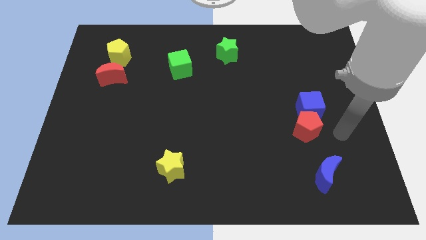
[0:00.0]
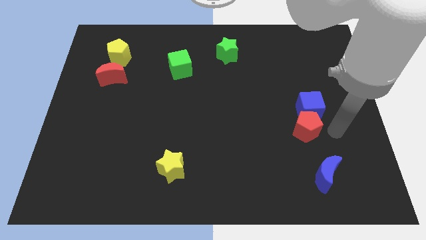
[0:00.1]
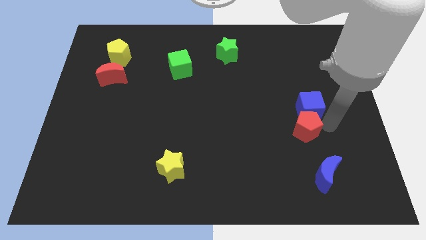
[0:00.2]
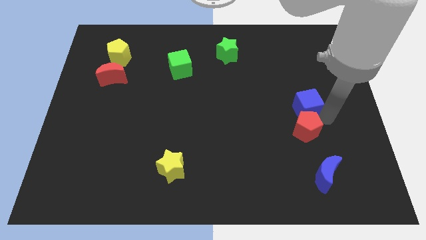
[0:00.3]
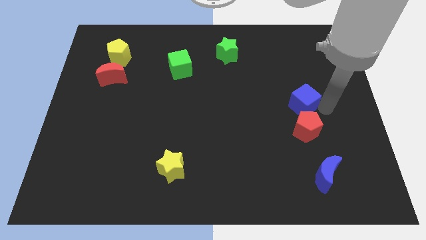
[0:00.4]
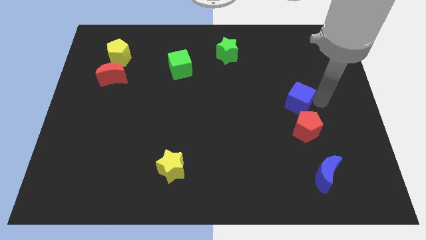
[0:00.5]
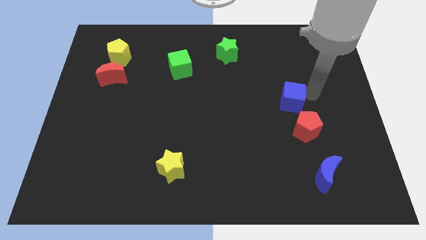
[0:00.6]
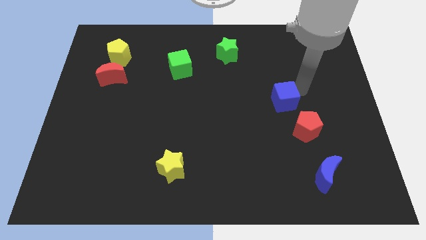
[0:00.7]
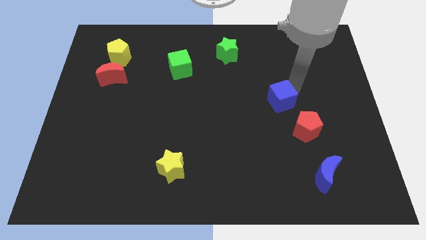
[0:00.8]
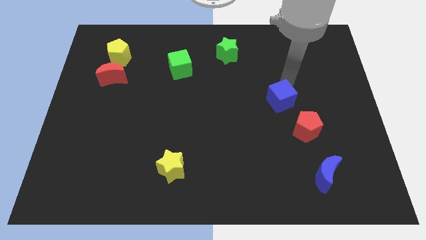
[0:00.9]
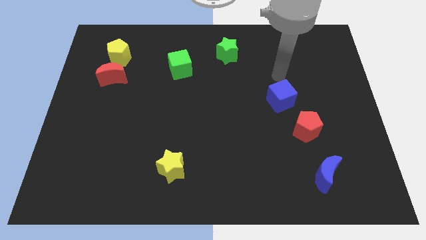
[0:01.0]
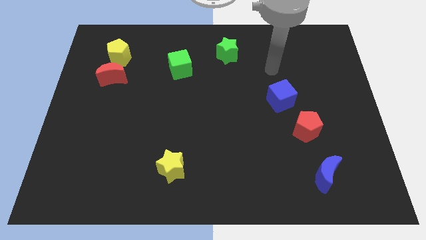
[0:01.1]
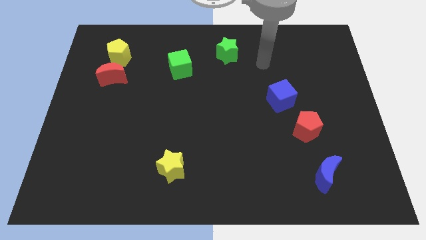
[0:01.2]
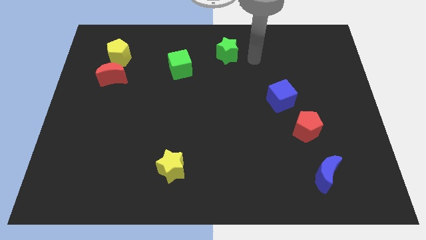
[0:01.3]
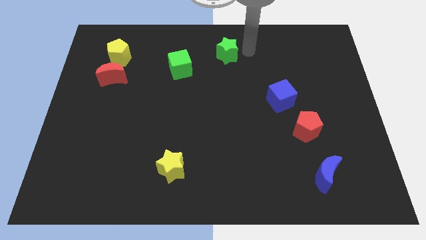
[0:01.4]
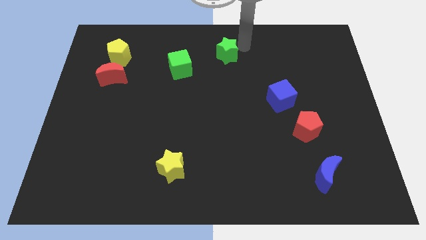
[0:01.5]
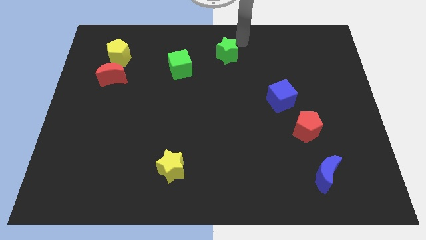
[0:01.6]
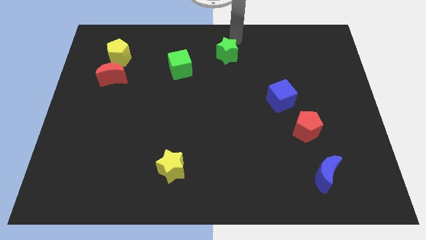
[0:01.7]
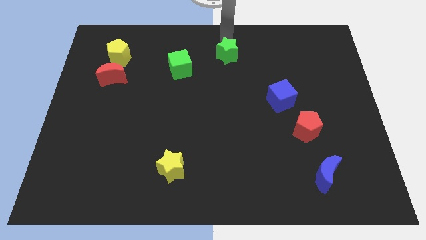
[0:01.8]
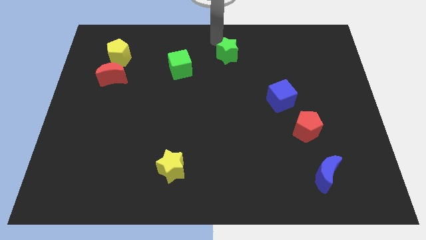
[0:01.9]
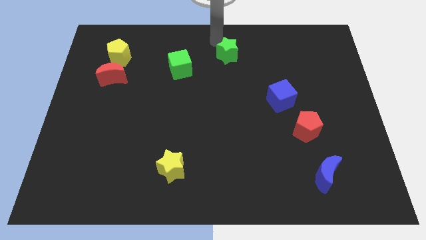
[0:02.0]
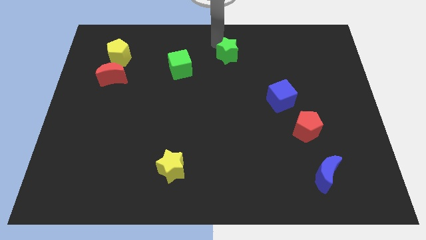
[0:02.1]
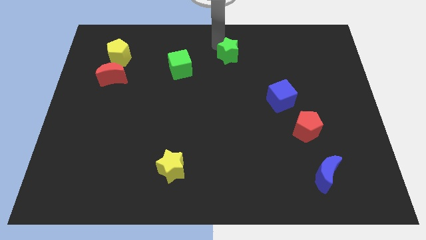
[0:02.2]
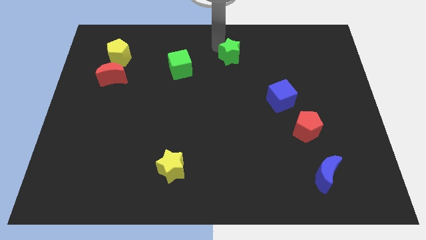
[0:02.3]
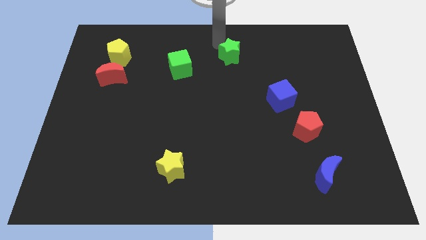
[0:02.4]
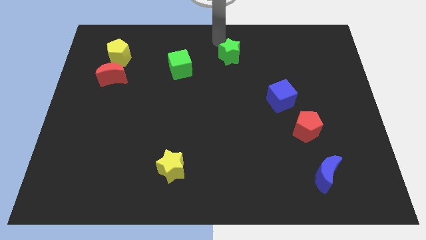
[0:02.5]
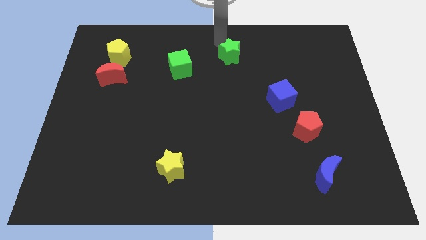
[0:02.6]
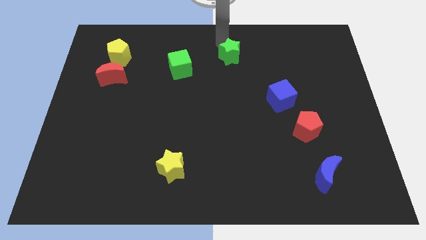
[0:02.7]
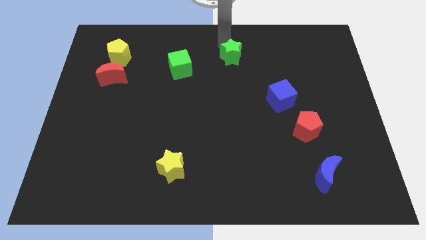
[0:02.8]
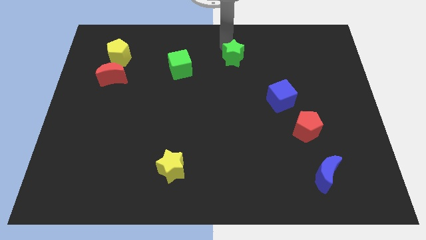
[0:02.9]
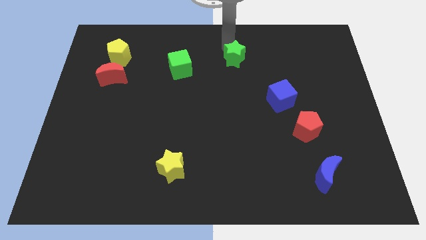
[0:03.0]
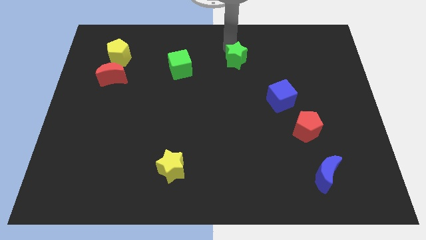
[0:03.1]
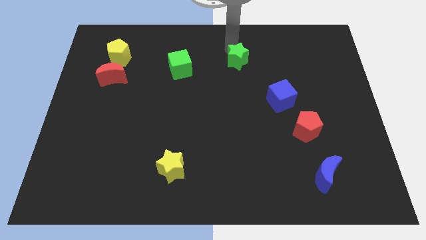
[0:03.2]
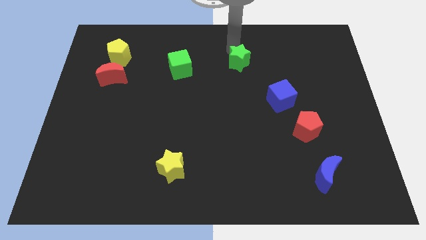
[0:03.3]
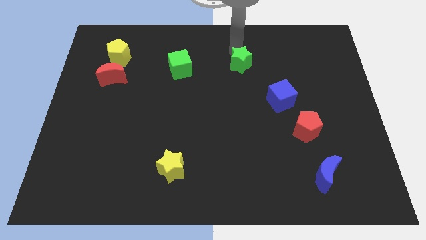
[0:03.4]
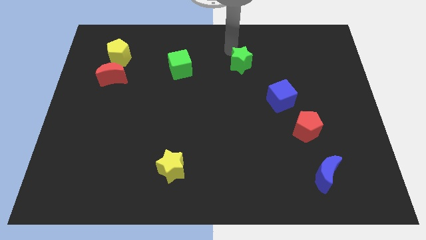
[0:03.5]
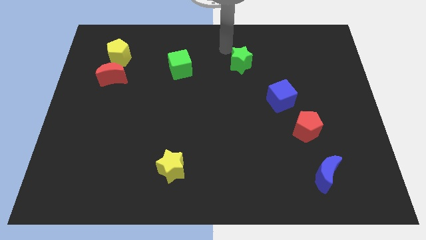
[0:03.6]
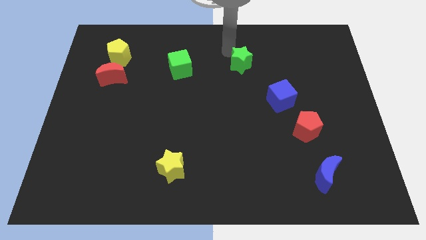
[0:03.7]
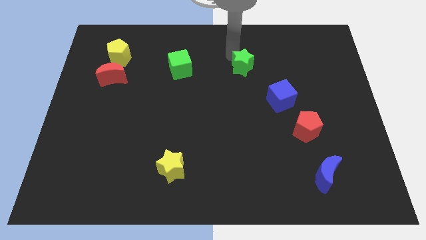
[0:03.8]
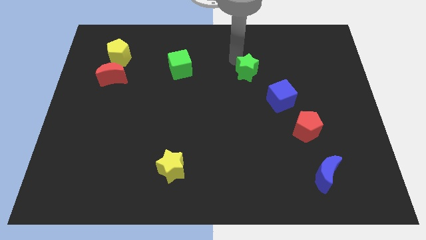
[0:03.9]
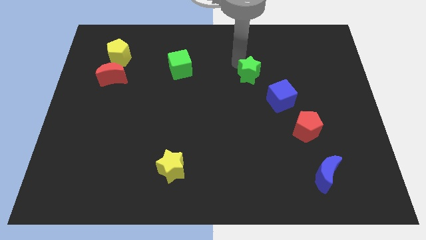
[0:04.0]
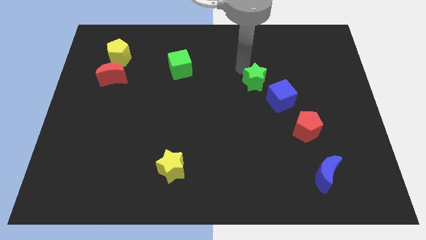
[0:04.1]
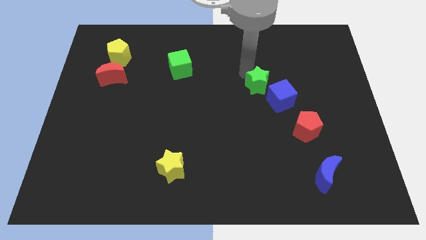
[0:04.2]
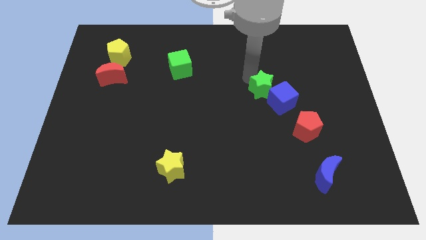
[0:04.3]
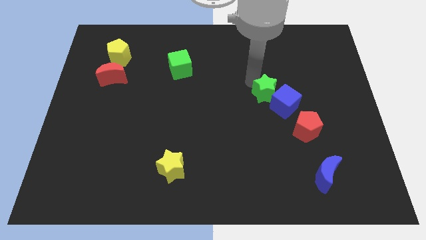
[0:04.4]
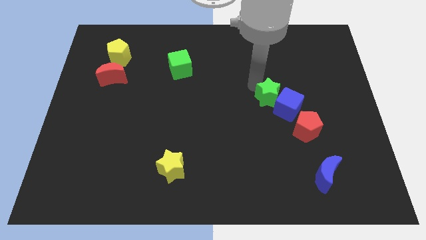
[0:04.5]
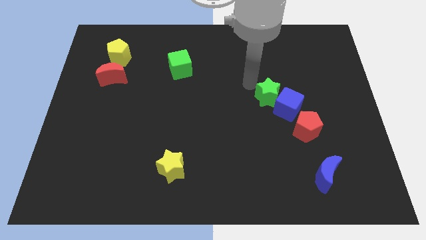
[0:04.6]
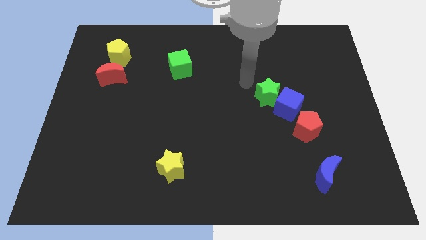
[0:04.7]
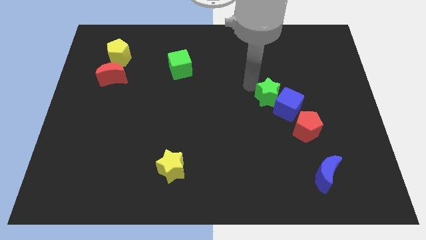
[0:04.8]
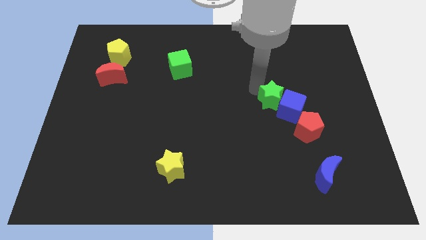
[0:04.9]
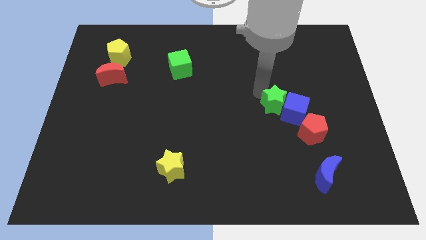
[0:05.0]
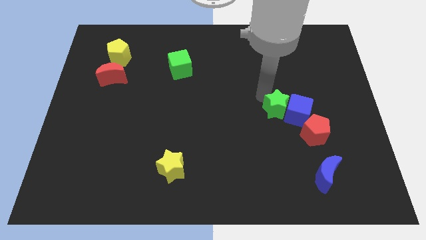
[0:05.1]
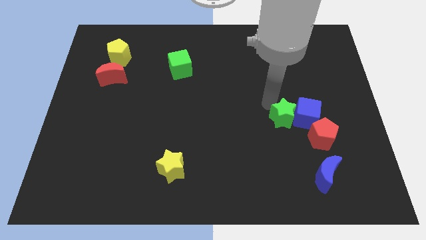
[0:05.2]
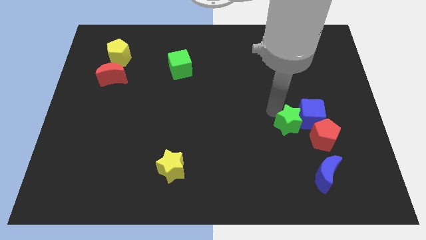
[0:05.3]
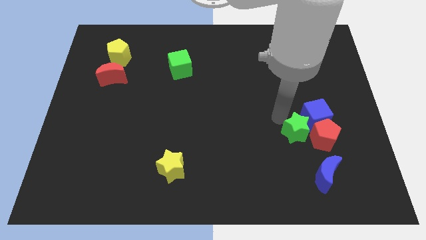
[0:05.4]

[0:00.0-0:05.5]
move the green star to the red pentagon

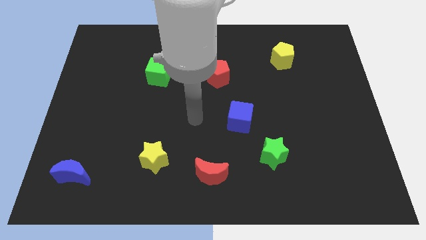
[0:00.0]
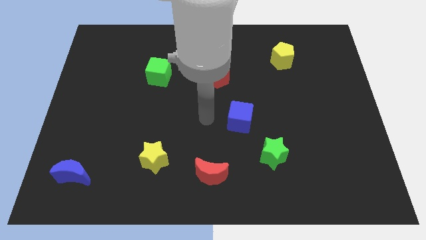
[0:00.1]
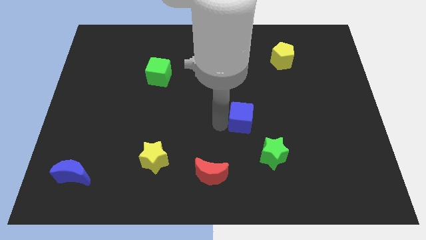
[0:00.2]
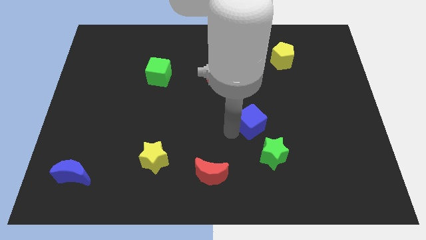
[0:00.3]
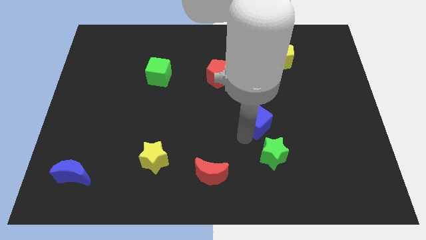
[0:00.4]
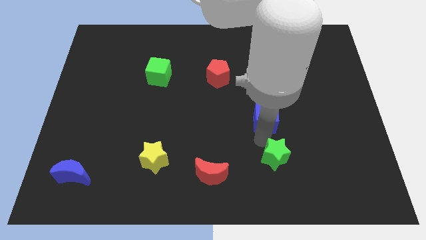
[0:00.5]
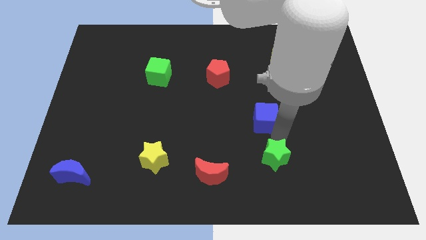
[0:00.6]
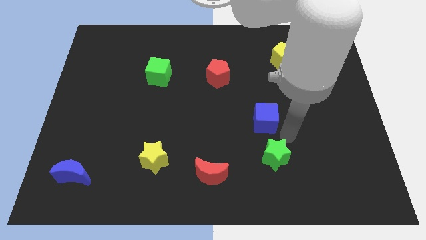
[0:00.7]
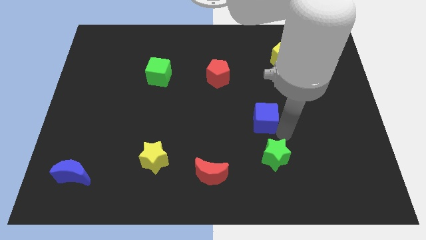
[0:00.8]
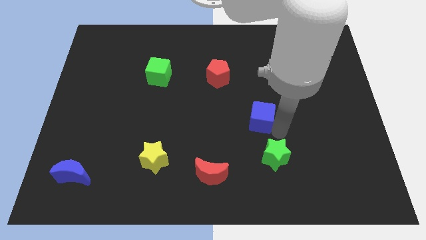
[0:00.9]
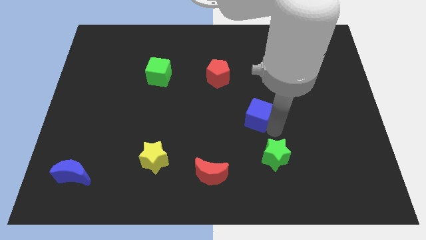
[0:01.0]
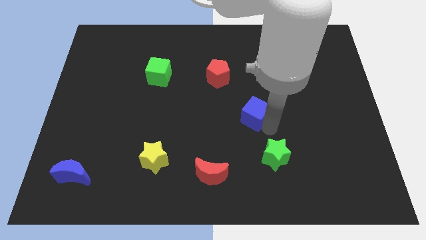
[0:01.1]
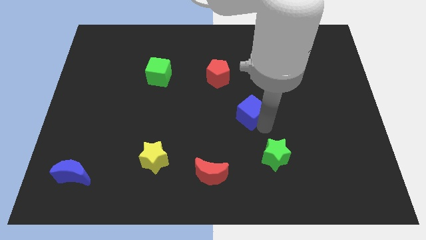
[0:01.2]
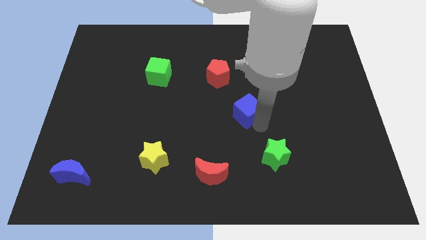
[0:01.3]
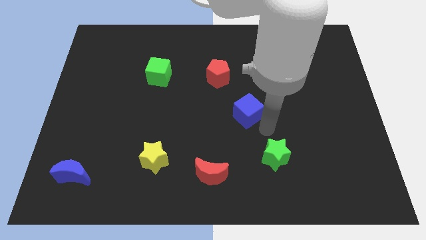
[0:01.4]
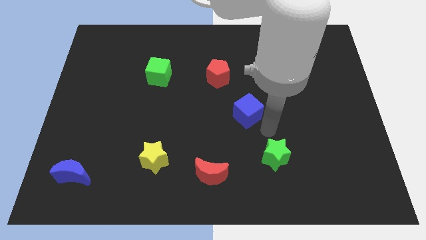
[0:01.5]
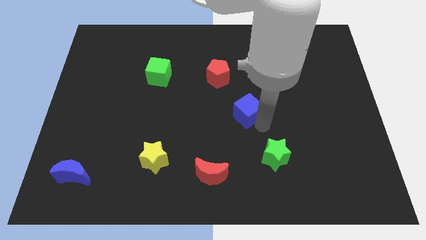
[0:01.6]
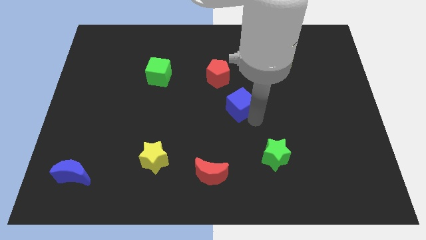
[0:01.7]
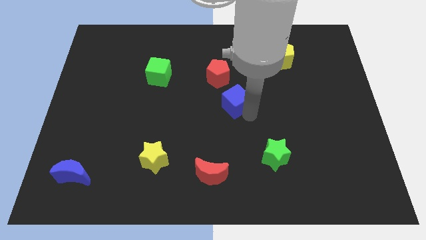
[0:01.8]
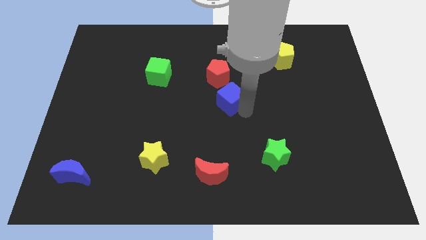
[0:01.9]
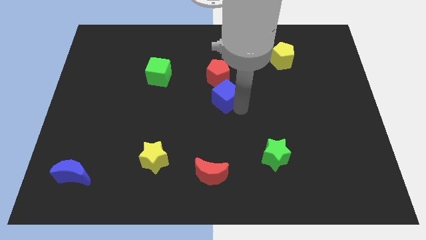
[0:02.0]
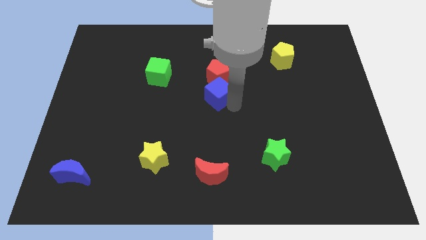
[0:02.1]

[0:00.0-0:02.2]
move the blue cube towards the red pentagon
